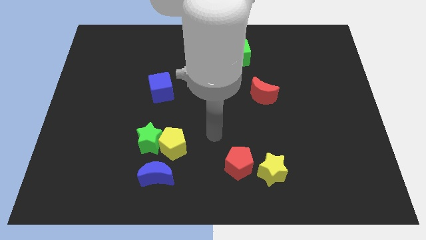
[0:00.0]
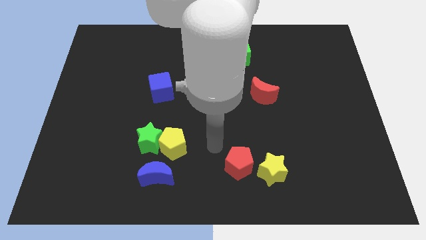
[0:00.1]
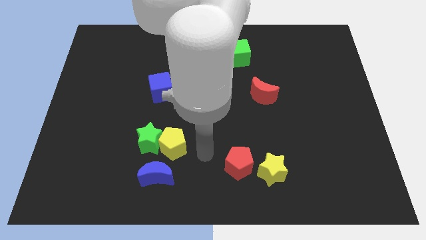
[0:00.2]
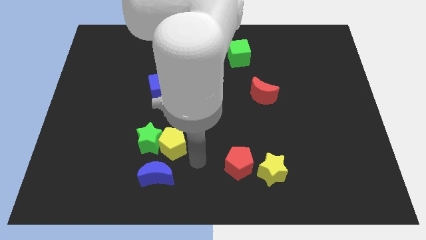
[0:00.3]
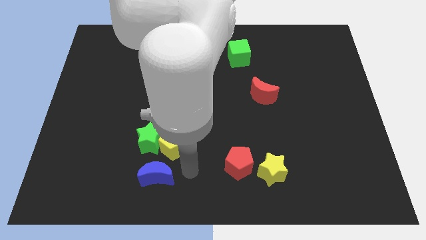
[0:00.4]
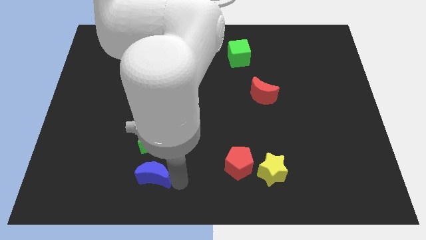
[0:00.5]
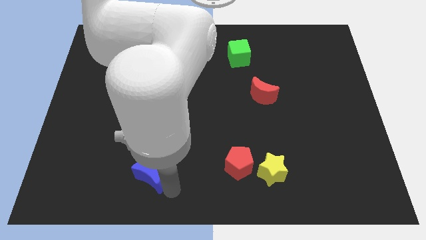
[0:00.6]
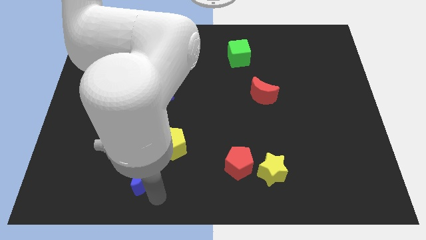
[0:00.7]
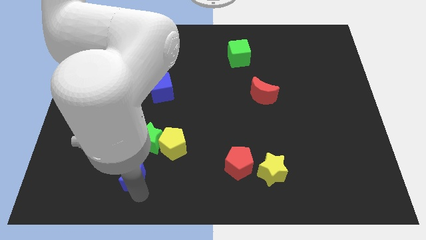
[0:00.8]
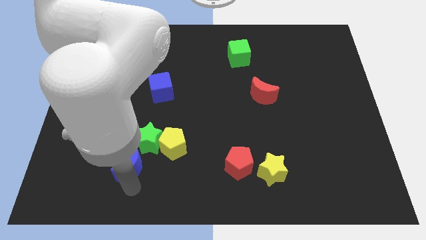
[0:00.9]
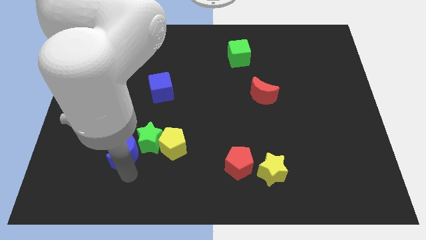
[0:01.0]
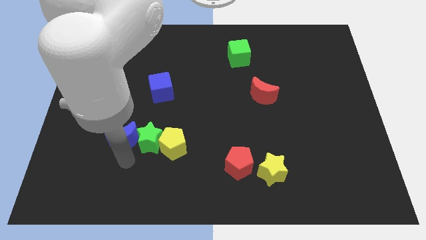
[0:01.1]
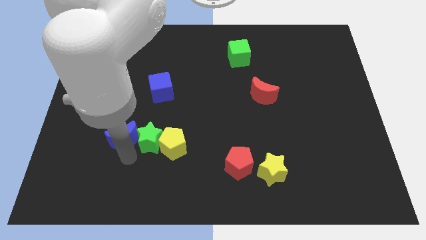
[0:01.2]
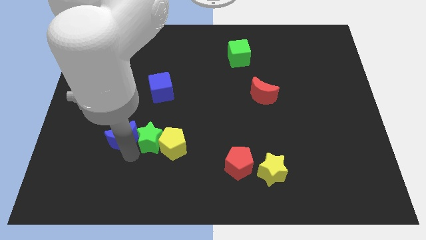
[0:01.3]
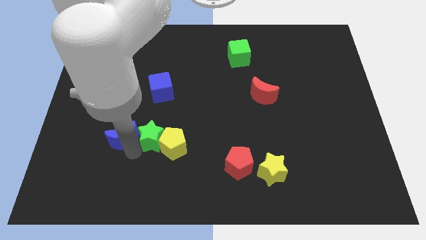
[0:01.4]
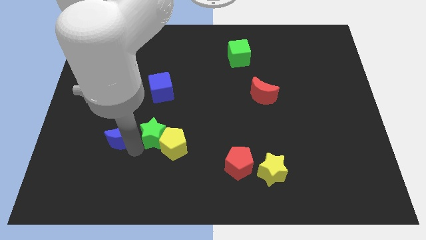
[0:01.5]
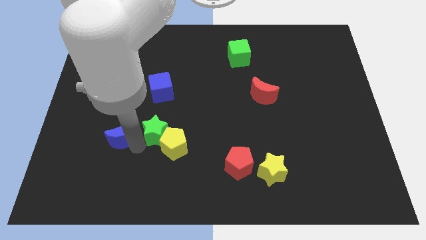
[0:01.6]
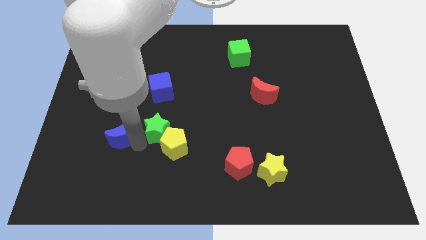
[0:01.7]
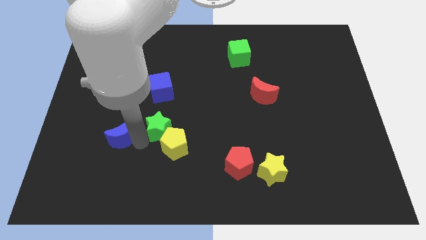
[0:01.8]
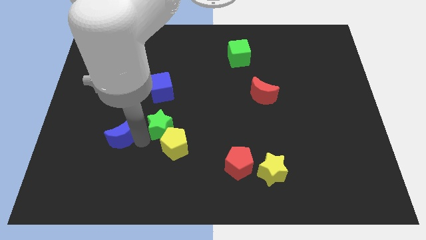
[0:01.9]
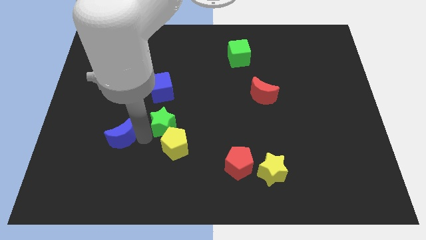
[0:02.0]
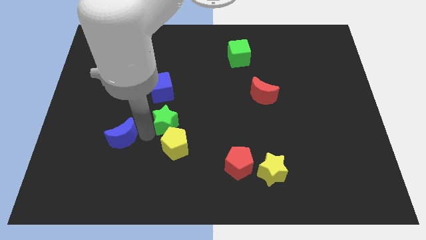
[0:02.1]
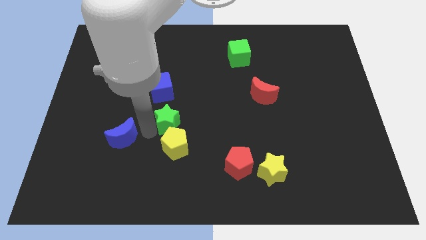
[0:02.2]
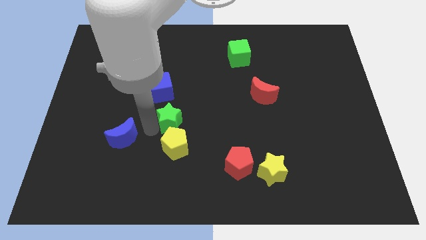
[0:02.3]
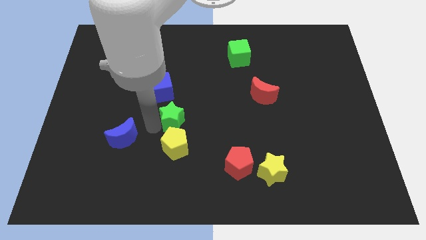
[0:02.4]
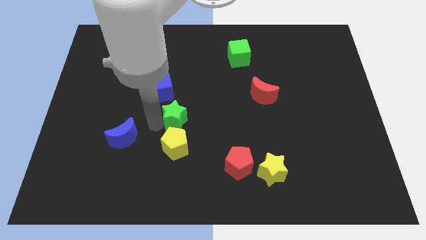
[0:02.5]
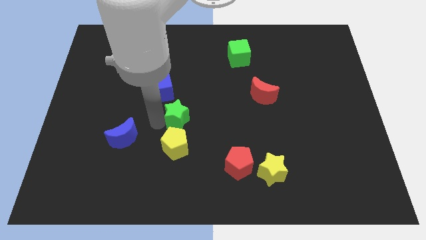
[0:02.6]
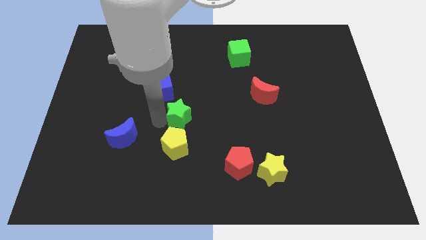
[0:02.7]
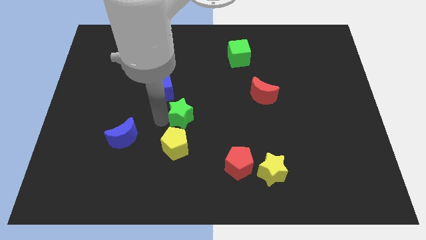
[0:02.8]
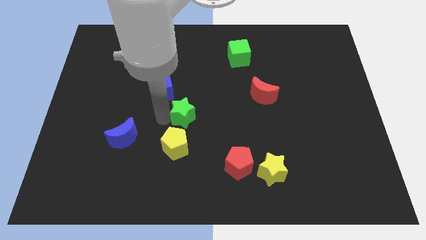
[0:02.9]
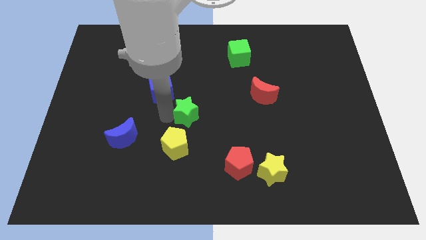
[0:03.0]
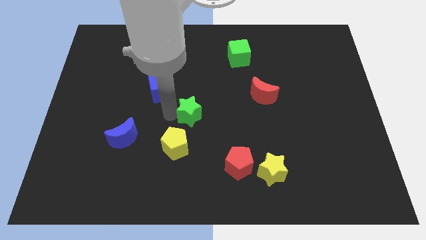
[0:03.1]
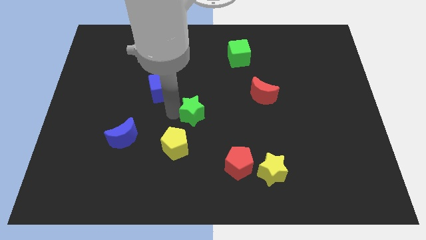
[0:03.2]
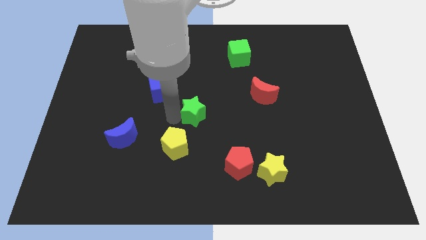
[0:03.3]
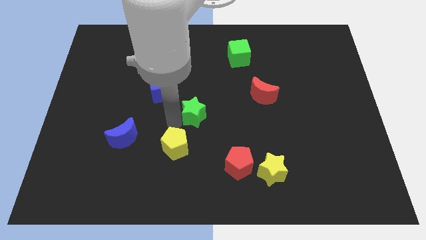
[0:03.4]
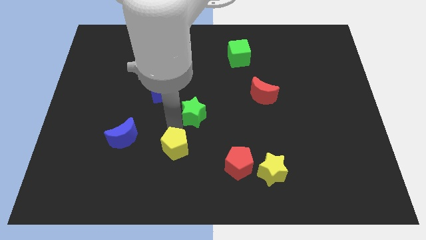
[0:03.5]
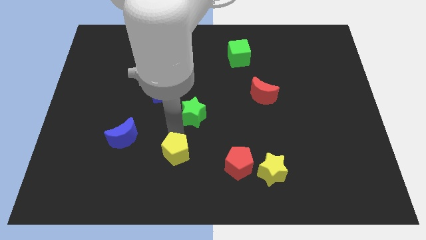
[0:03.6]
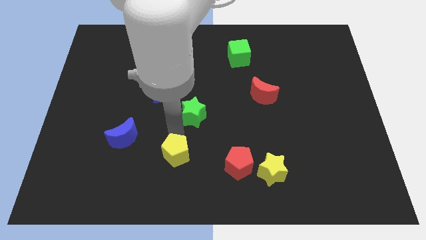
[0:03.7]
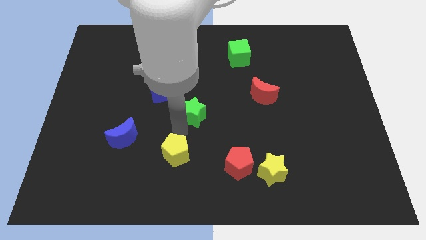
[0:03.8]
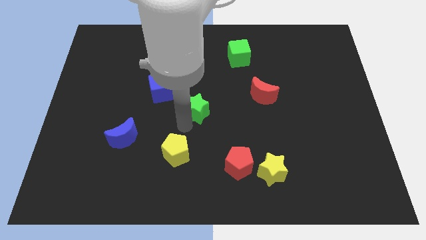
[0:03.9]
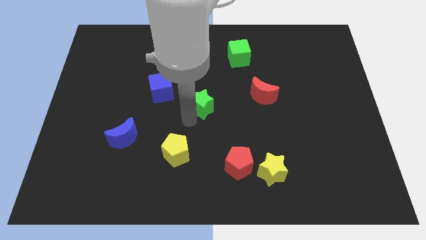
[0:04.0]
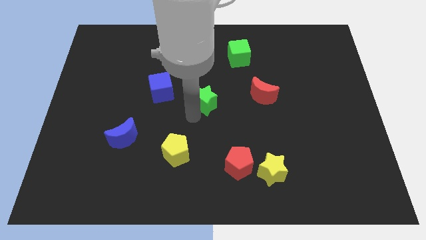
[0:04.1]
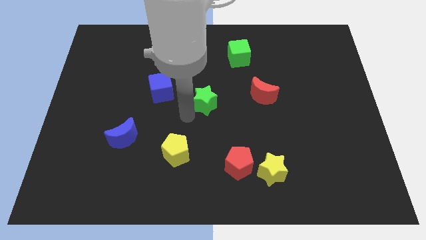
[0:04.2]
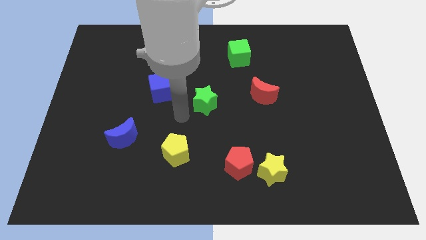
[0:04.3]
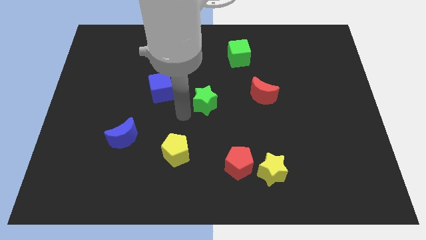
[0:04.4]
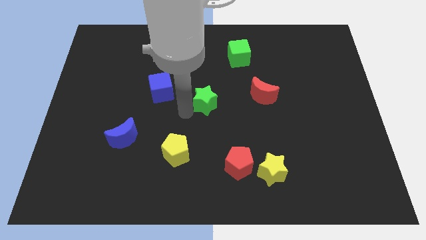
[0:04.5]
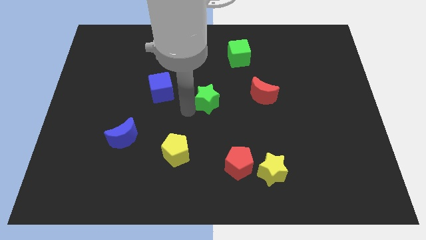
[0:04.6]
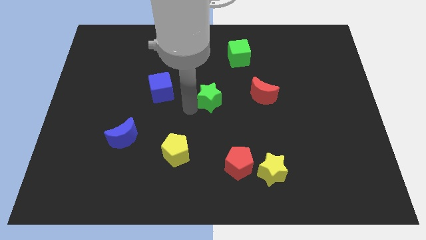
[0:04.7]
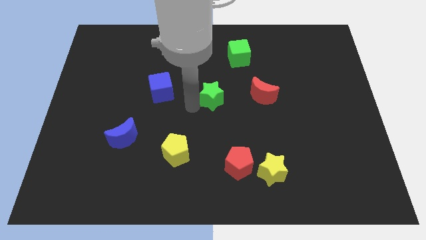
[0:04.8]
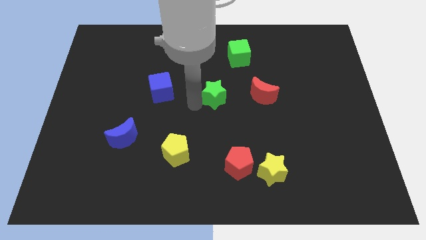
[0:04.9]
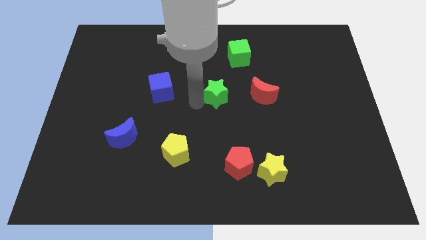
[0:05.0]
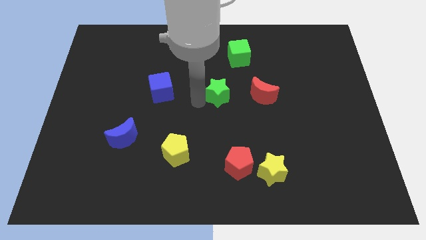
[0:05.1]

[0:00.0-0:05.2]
push the green star upwards and then to the right

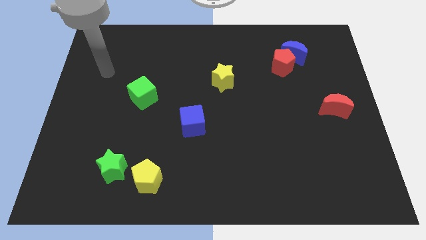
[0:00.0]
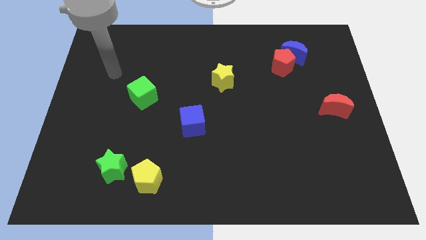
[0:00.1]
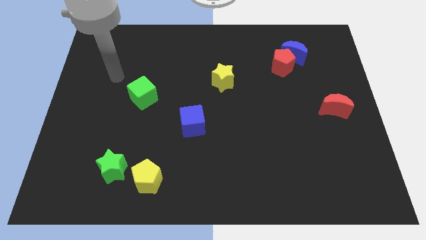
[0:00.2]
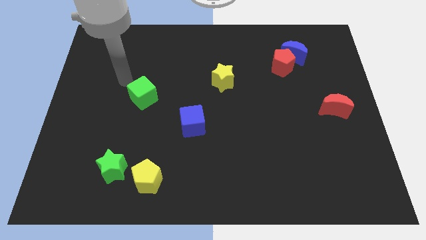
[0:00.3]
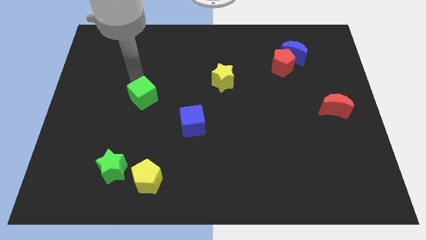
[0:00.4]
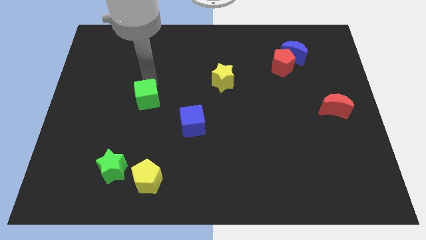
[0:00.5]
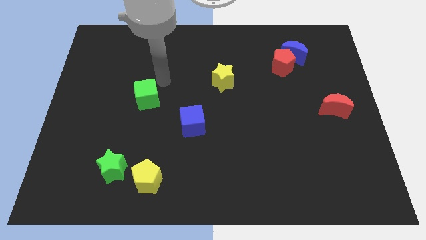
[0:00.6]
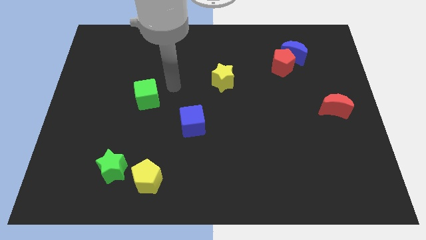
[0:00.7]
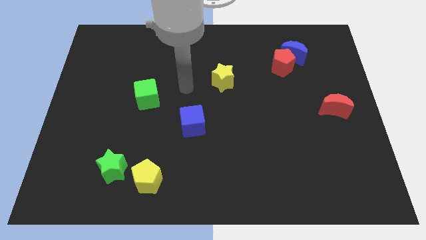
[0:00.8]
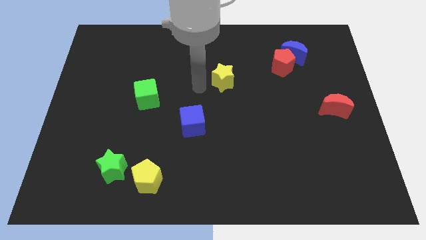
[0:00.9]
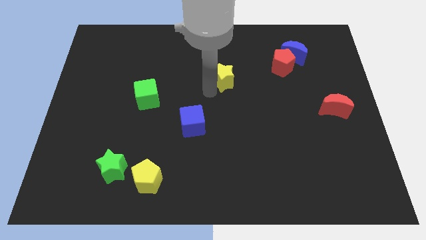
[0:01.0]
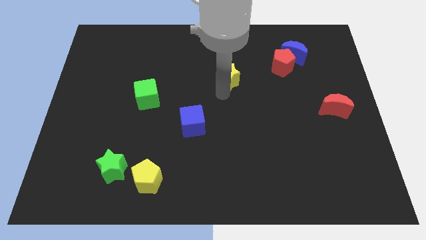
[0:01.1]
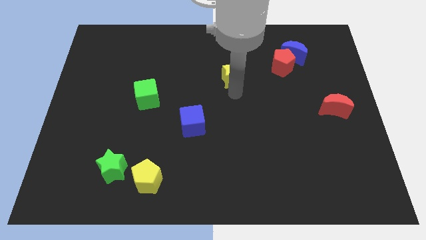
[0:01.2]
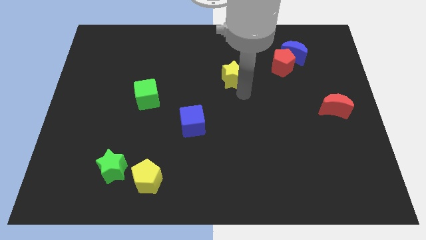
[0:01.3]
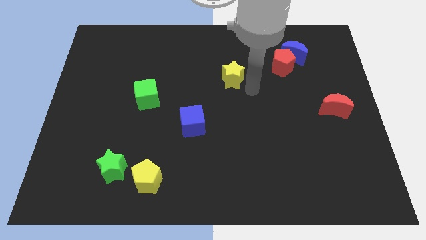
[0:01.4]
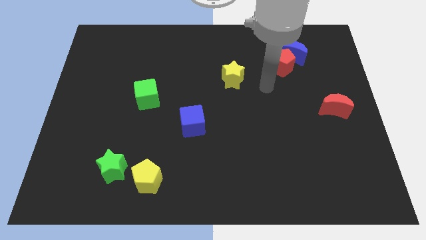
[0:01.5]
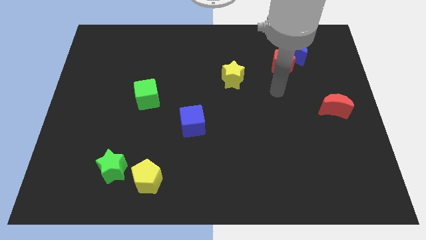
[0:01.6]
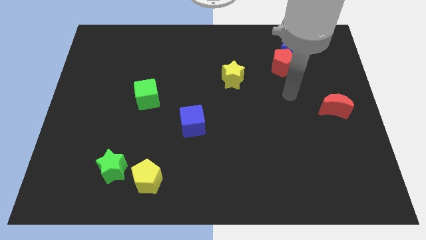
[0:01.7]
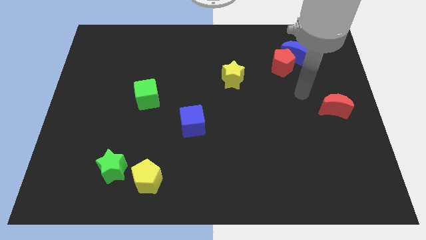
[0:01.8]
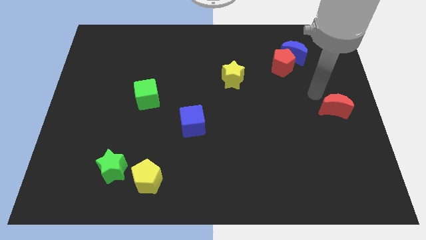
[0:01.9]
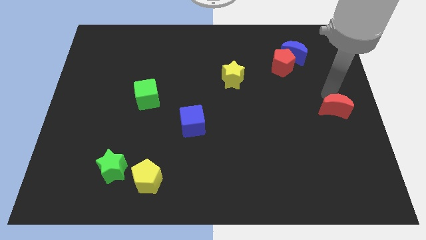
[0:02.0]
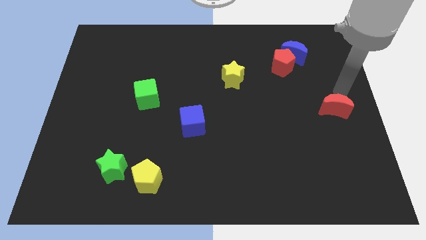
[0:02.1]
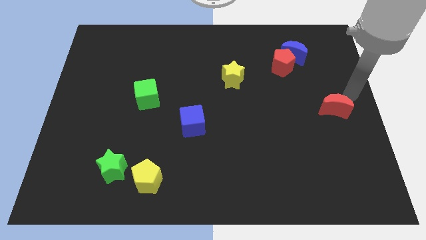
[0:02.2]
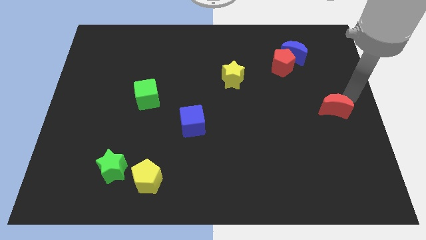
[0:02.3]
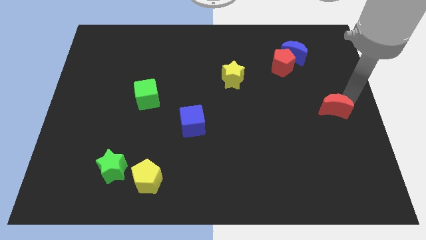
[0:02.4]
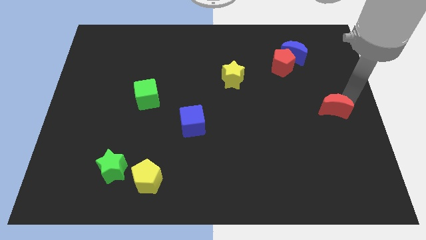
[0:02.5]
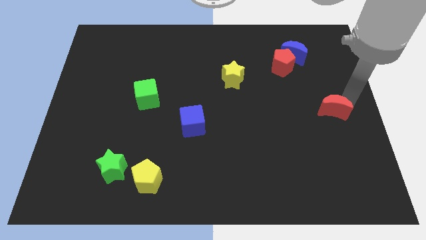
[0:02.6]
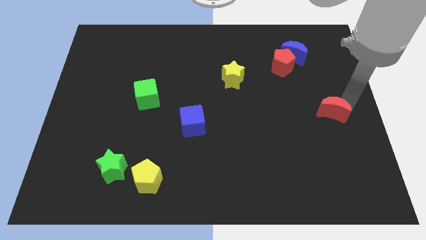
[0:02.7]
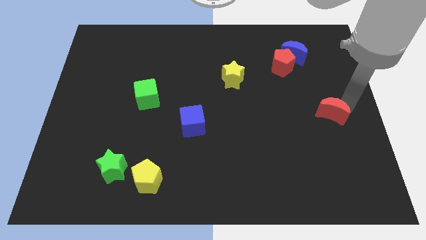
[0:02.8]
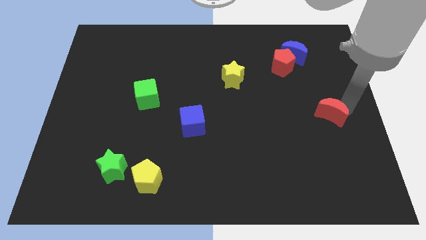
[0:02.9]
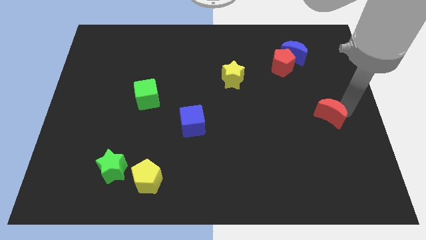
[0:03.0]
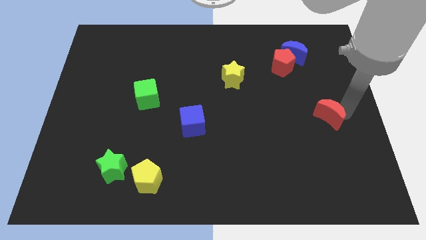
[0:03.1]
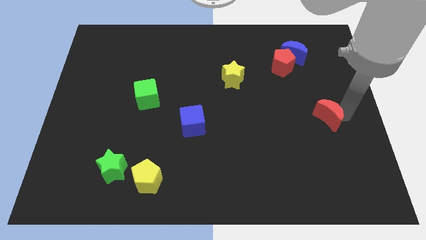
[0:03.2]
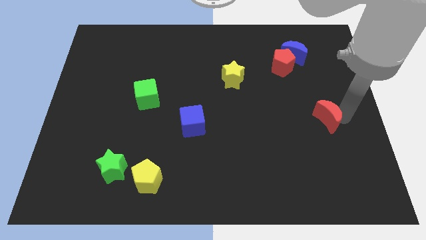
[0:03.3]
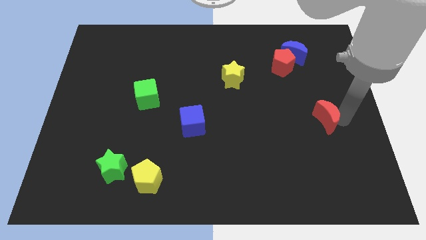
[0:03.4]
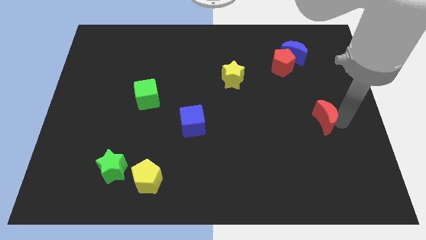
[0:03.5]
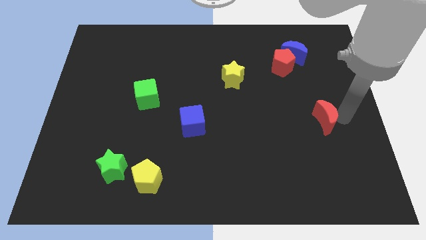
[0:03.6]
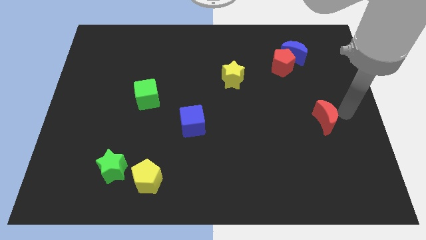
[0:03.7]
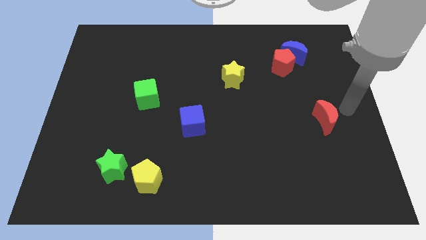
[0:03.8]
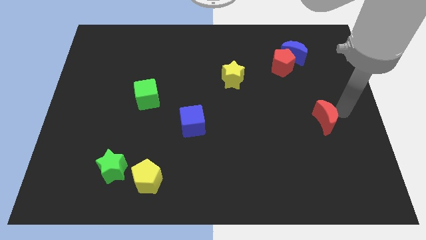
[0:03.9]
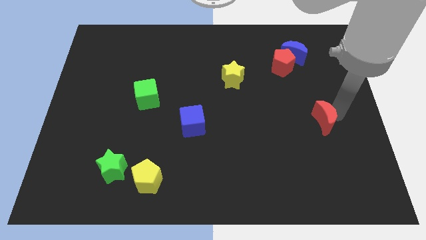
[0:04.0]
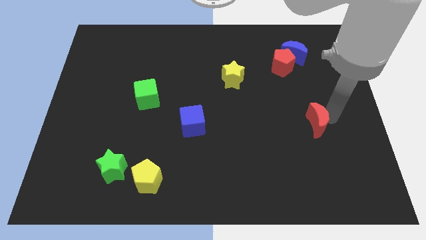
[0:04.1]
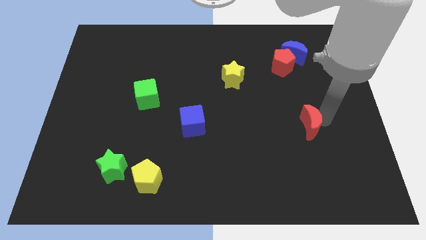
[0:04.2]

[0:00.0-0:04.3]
slide the red moon downwards and left diagonally a bit
